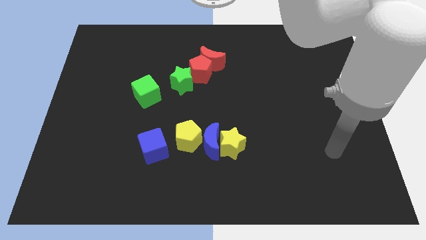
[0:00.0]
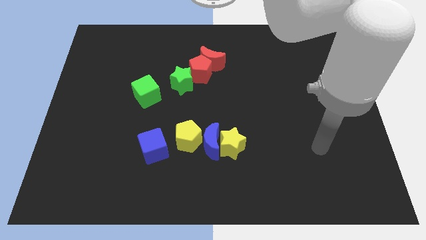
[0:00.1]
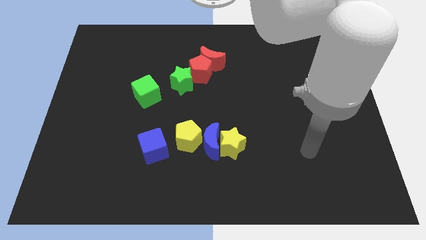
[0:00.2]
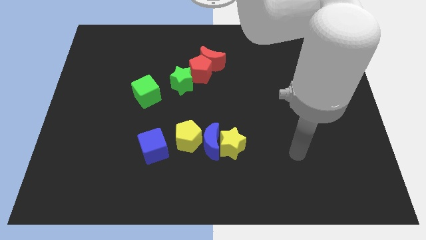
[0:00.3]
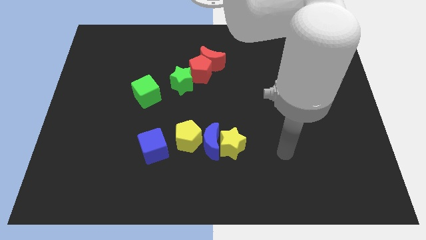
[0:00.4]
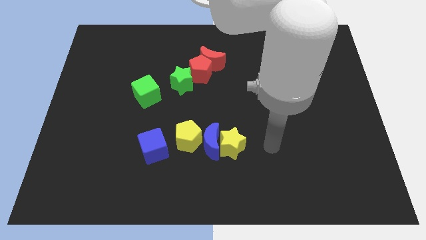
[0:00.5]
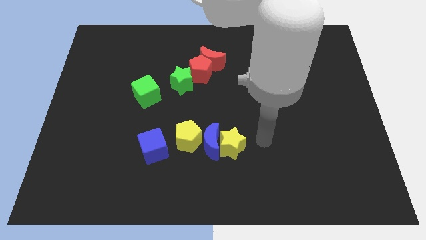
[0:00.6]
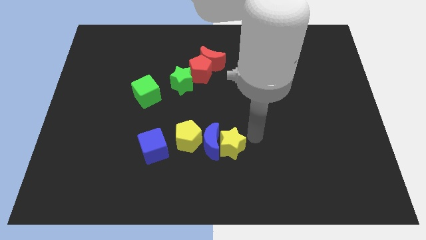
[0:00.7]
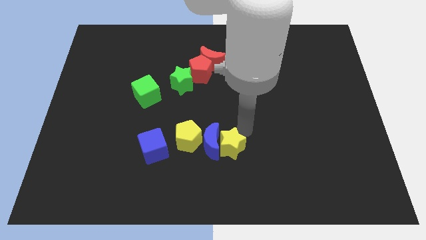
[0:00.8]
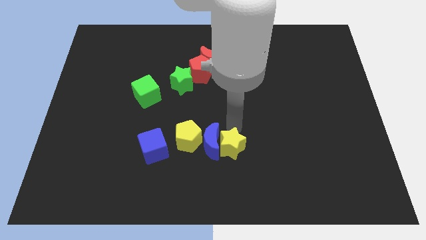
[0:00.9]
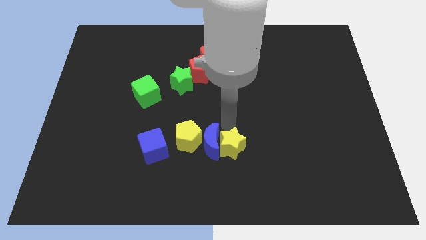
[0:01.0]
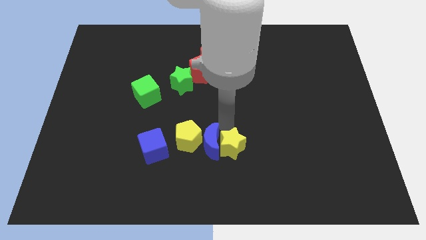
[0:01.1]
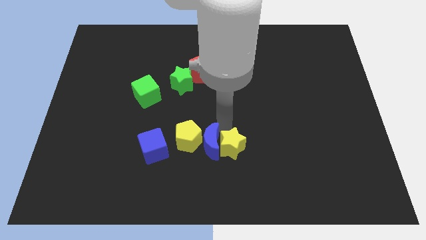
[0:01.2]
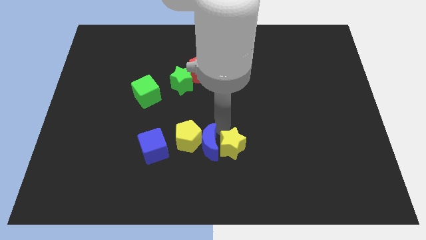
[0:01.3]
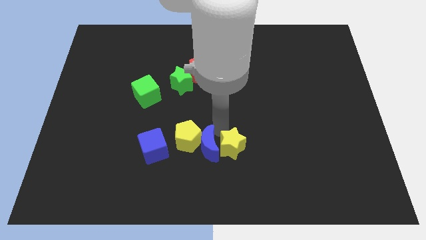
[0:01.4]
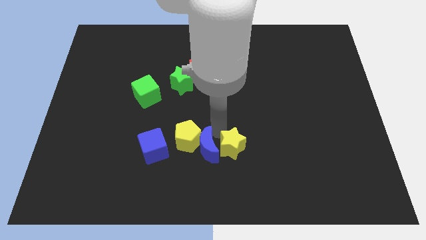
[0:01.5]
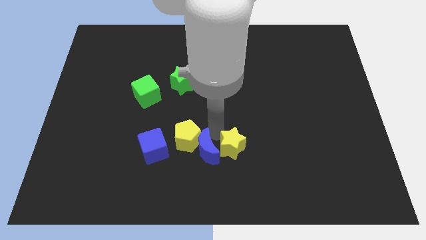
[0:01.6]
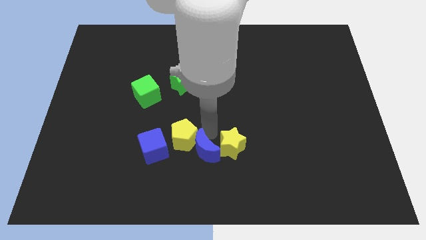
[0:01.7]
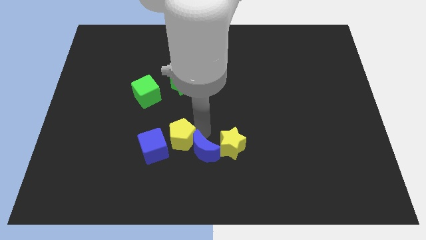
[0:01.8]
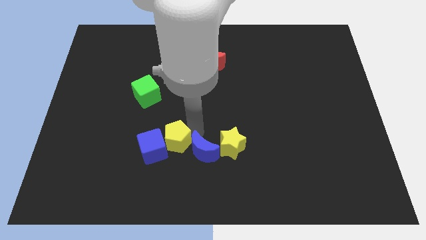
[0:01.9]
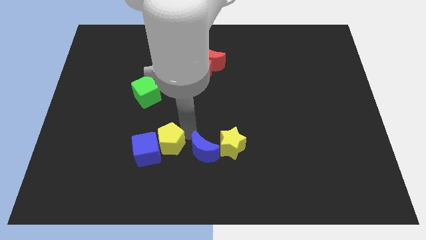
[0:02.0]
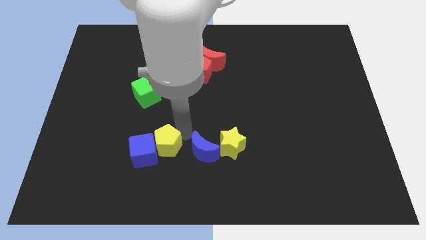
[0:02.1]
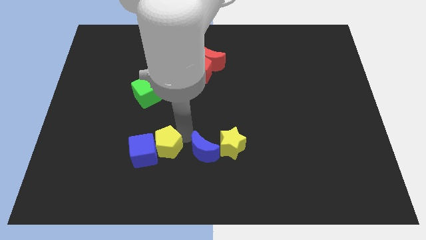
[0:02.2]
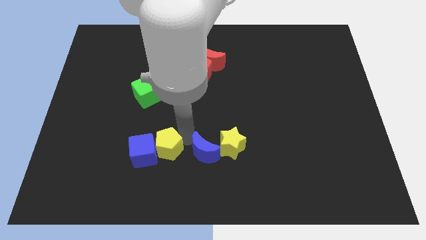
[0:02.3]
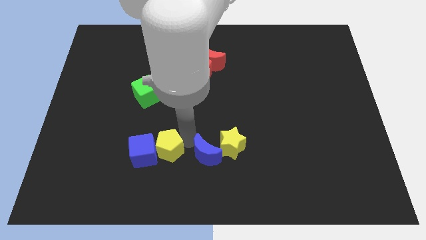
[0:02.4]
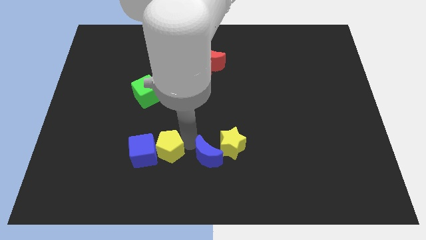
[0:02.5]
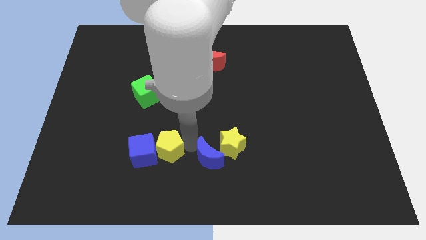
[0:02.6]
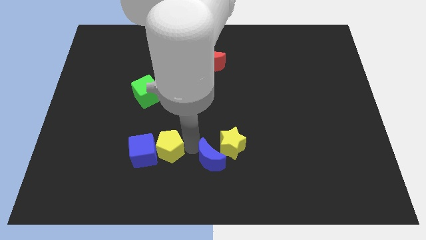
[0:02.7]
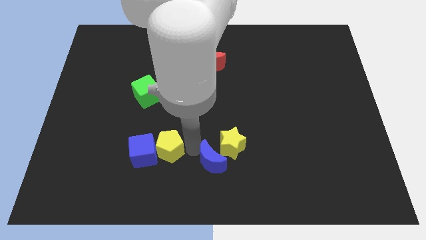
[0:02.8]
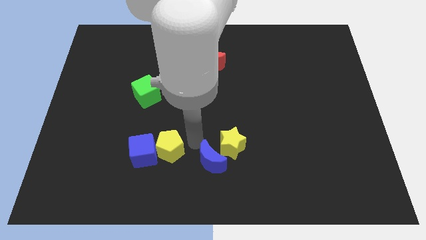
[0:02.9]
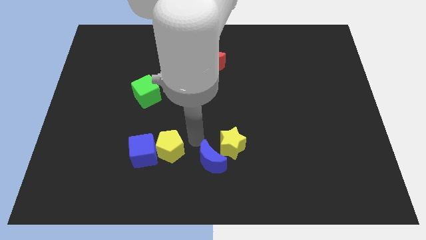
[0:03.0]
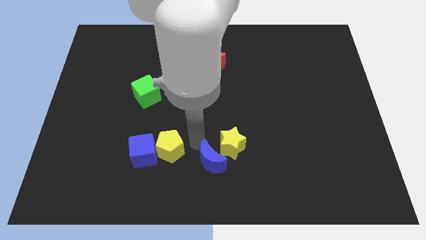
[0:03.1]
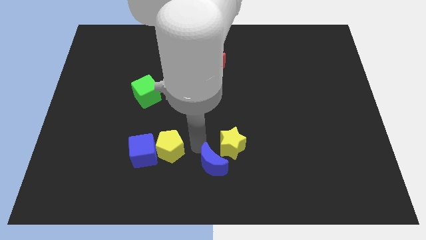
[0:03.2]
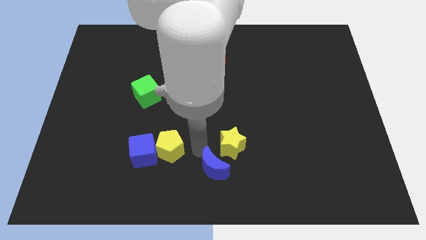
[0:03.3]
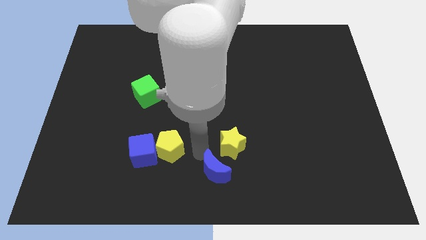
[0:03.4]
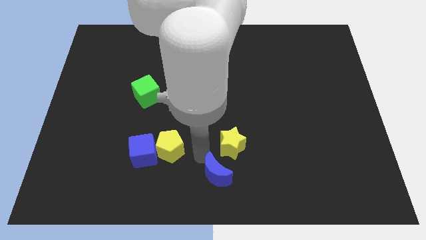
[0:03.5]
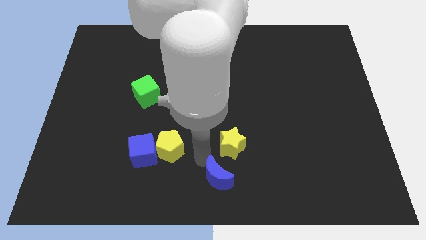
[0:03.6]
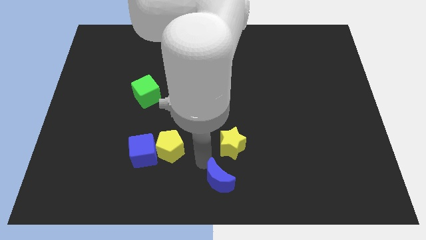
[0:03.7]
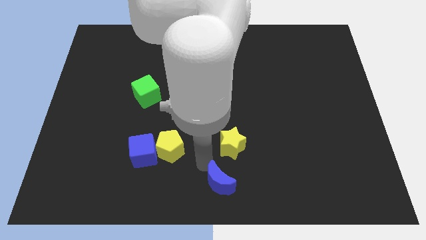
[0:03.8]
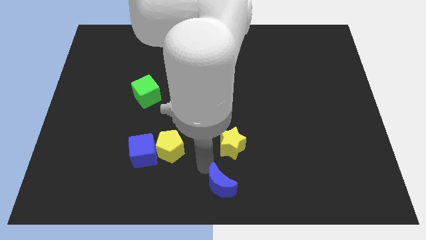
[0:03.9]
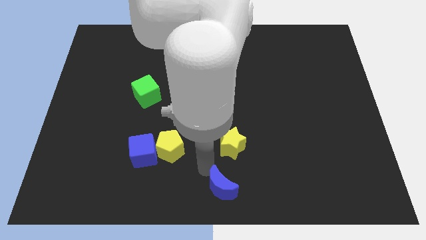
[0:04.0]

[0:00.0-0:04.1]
separate the blue moon from the yellow star and yellow pentagon

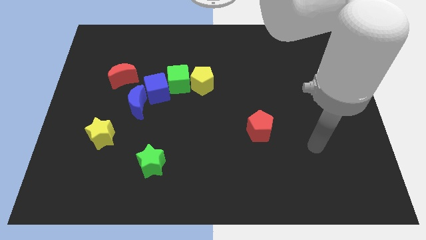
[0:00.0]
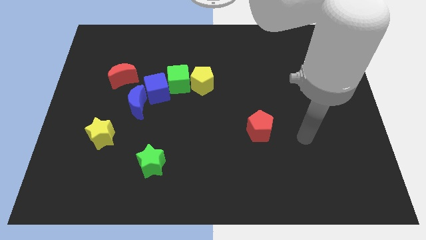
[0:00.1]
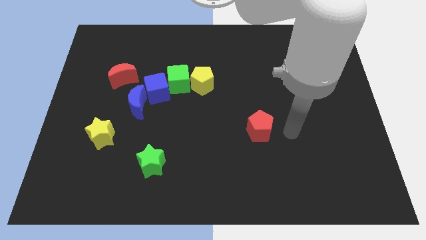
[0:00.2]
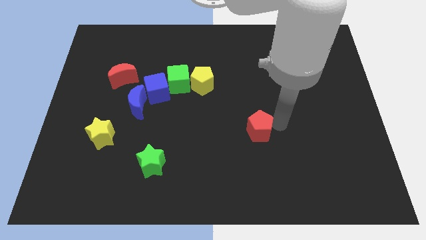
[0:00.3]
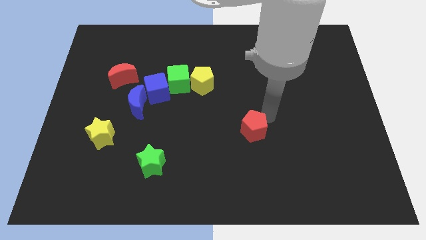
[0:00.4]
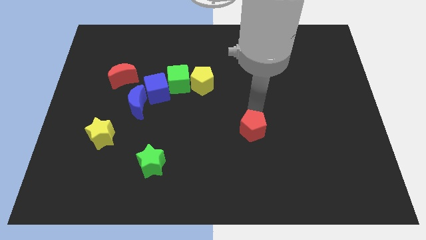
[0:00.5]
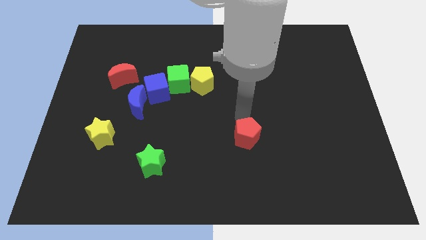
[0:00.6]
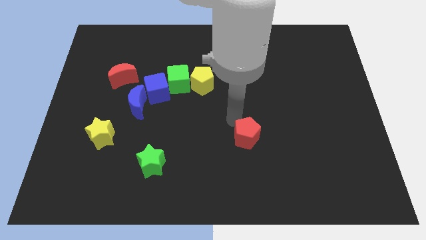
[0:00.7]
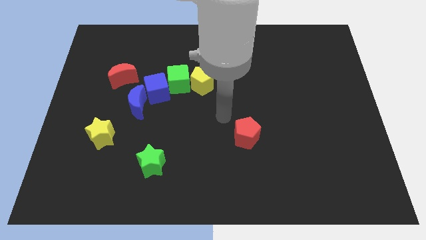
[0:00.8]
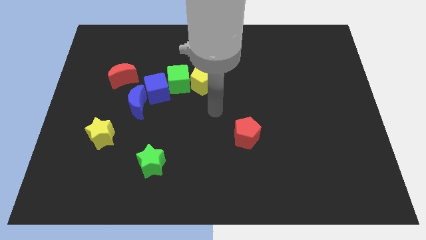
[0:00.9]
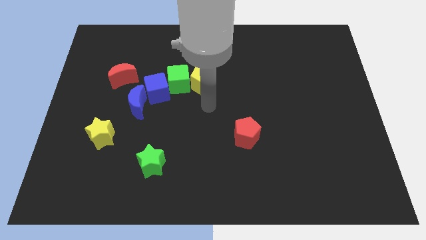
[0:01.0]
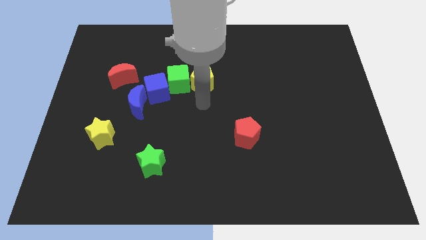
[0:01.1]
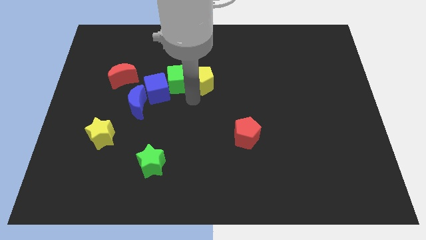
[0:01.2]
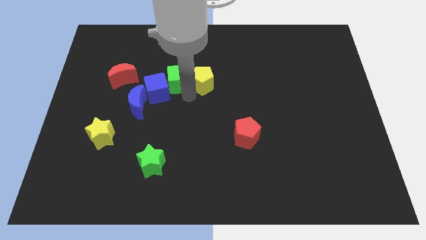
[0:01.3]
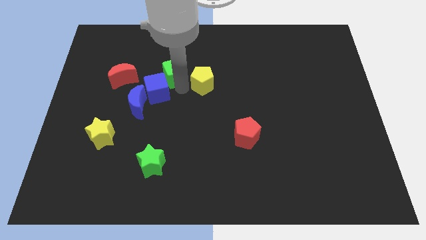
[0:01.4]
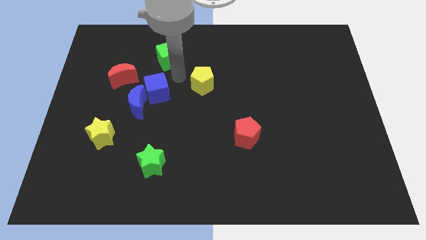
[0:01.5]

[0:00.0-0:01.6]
separate the yellow pentagon from the green cube

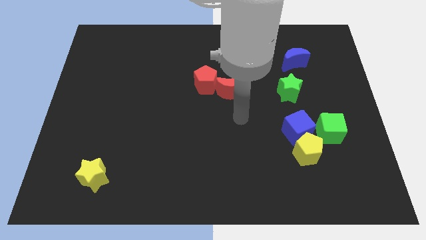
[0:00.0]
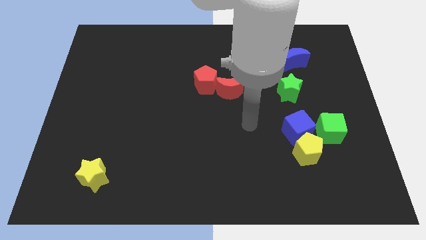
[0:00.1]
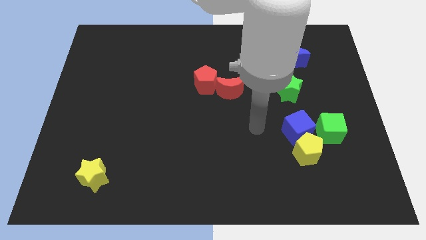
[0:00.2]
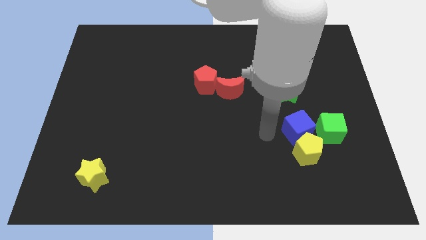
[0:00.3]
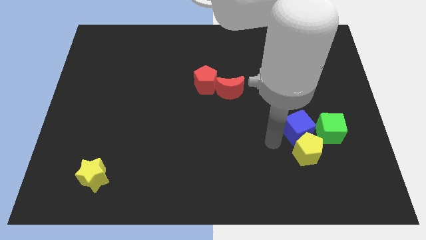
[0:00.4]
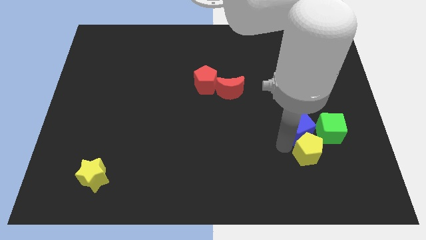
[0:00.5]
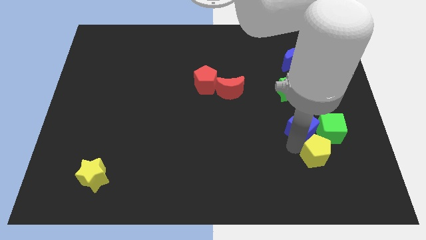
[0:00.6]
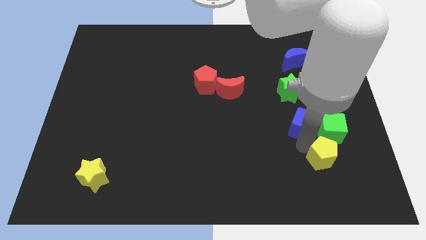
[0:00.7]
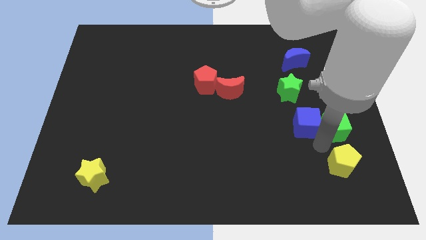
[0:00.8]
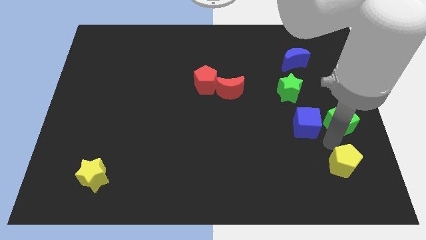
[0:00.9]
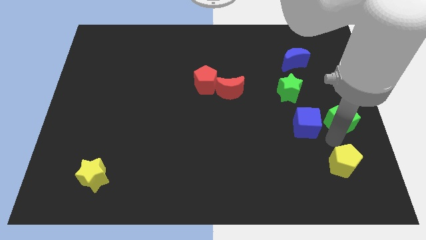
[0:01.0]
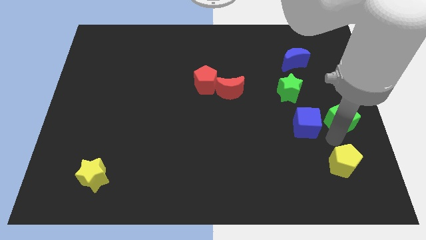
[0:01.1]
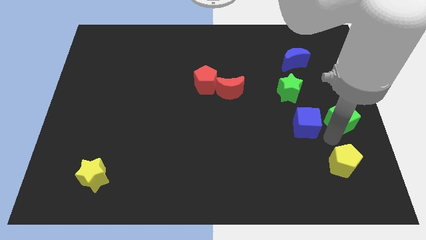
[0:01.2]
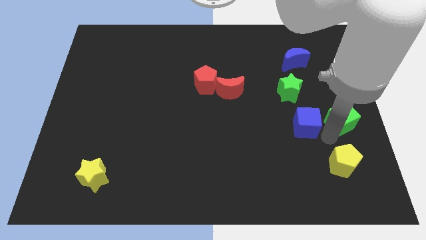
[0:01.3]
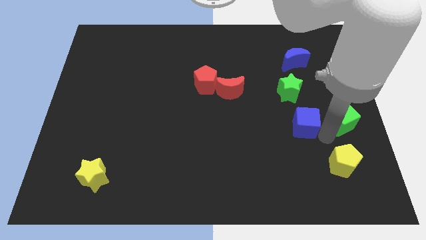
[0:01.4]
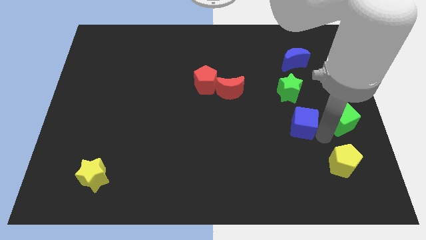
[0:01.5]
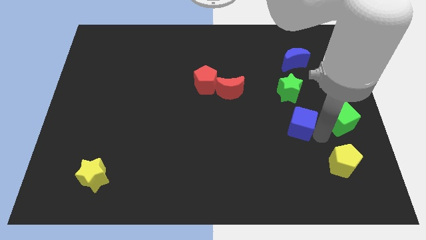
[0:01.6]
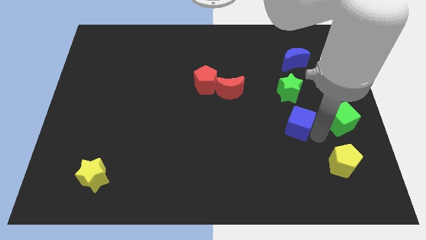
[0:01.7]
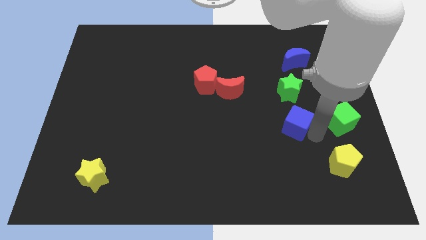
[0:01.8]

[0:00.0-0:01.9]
pull the blue cube apart from the yellow pentagon and green cube

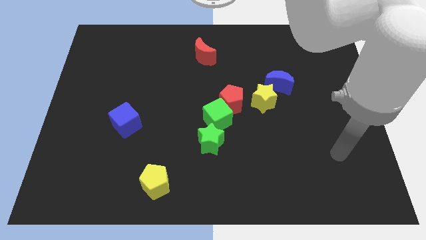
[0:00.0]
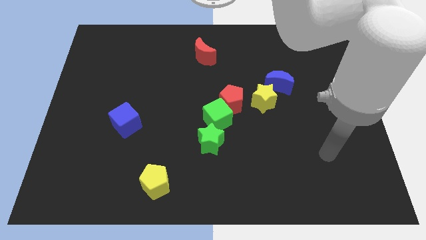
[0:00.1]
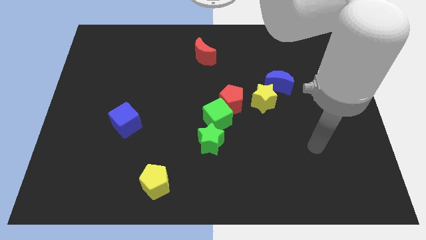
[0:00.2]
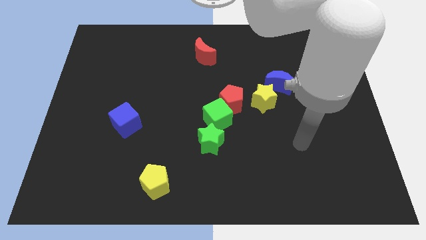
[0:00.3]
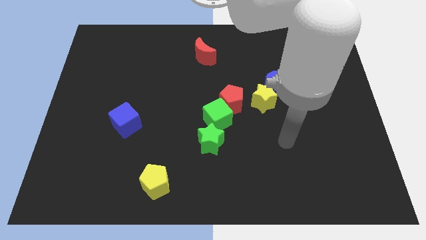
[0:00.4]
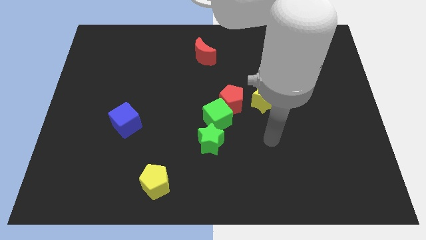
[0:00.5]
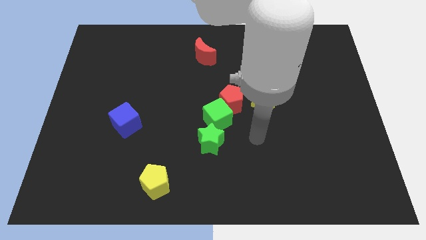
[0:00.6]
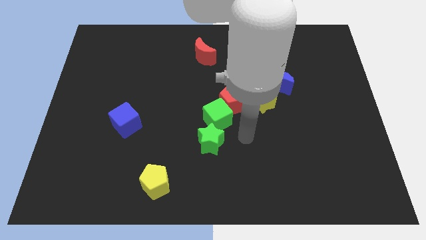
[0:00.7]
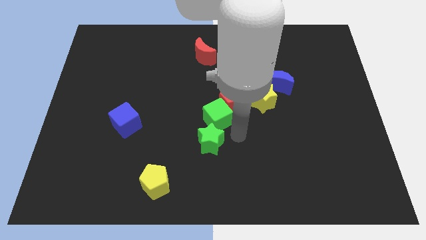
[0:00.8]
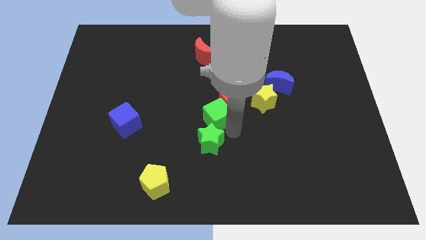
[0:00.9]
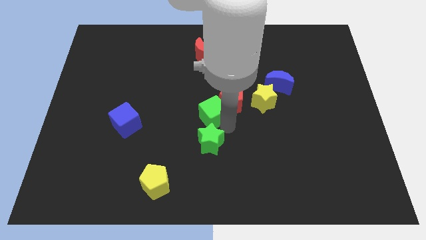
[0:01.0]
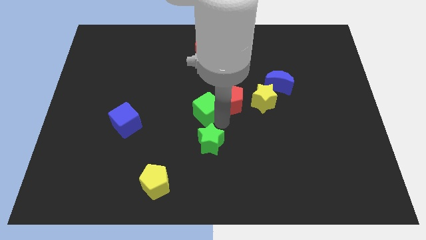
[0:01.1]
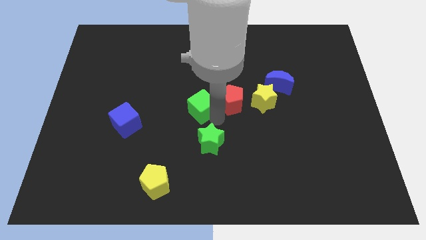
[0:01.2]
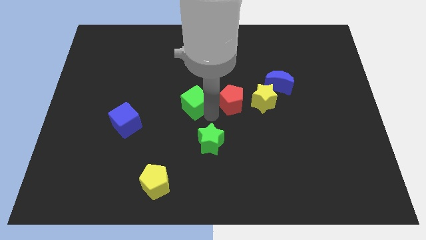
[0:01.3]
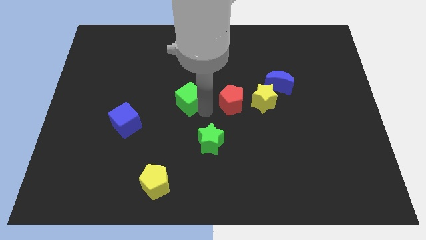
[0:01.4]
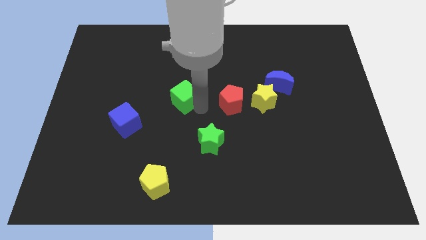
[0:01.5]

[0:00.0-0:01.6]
separate the green cube from the red pentagon and green star

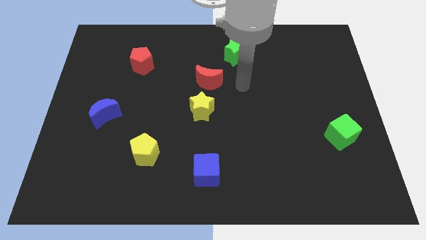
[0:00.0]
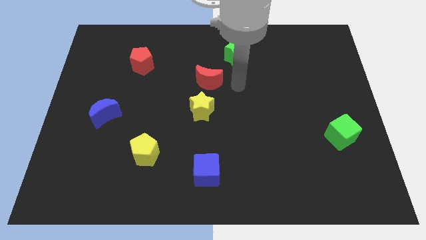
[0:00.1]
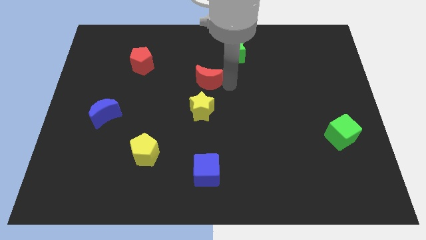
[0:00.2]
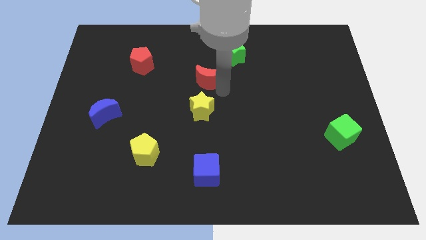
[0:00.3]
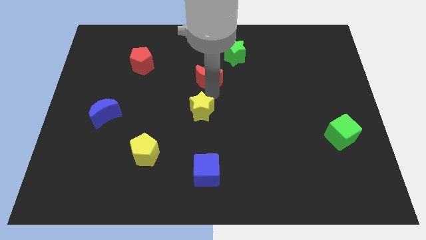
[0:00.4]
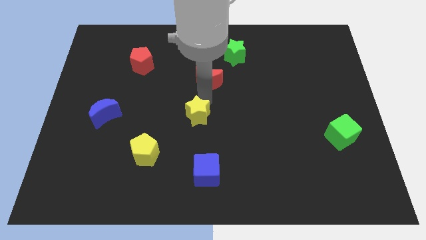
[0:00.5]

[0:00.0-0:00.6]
move the red moon away from the yellow star
